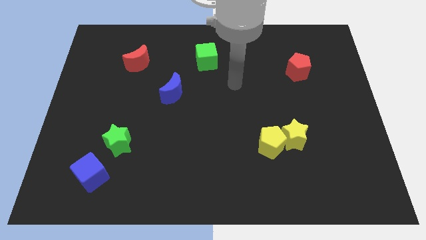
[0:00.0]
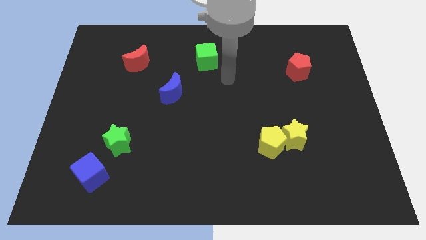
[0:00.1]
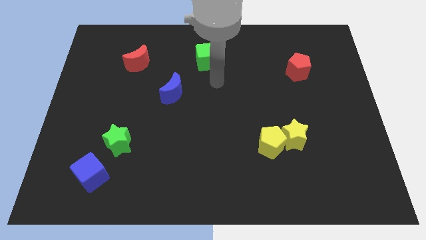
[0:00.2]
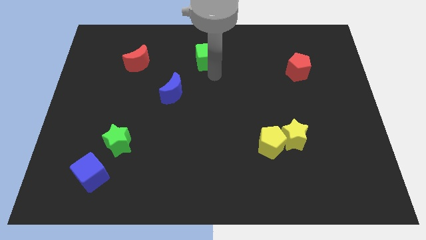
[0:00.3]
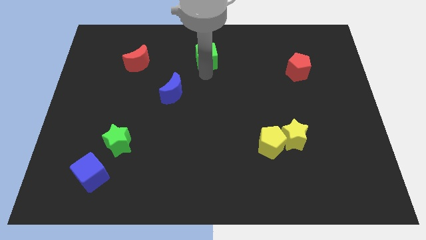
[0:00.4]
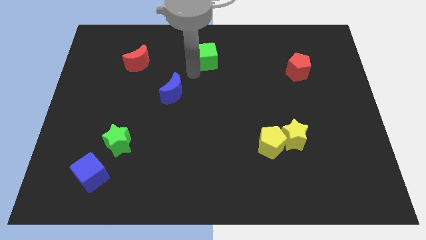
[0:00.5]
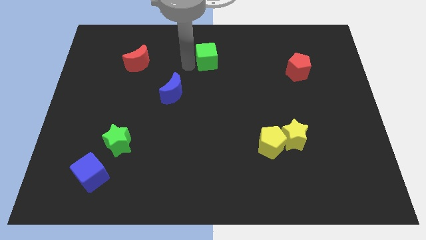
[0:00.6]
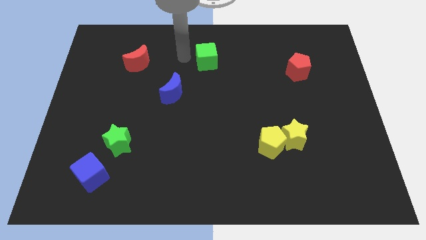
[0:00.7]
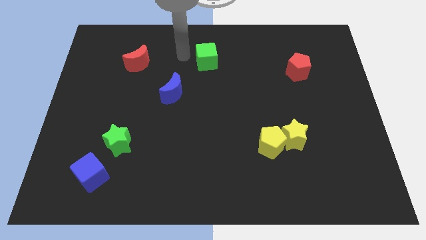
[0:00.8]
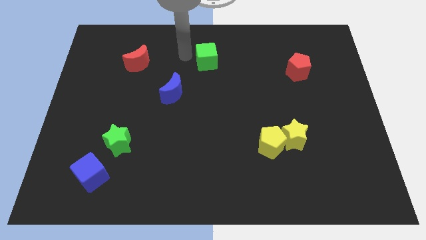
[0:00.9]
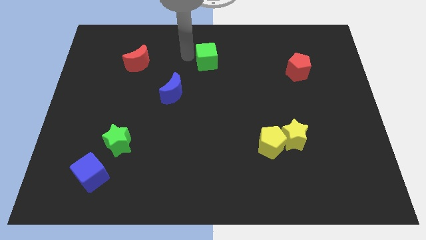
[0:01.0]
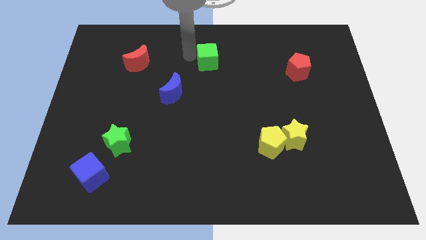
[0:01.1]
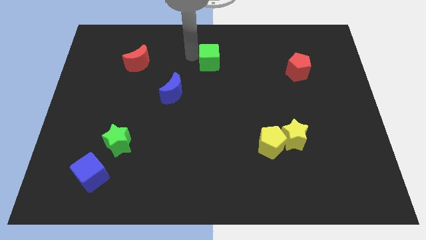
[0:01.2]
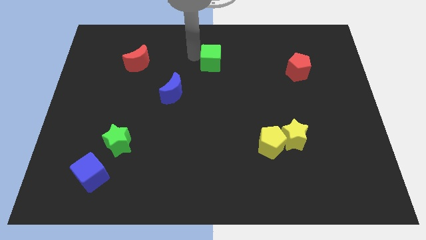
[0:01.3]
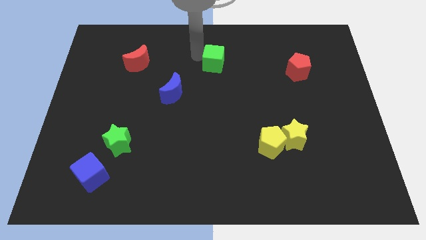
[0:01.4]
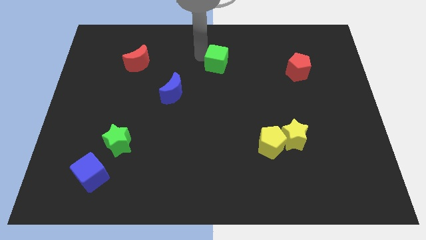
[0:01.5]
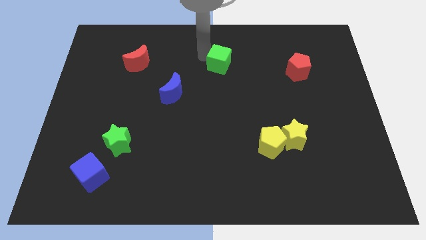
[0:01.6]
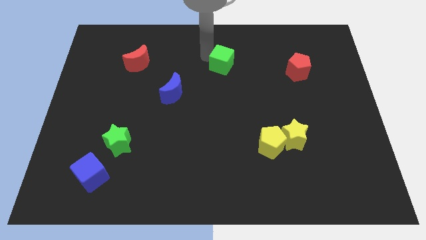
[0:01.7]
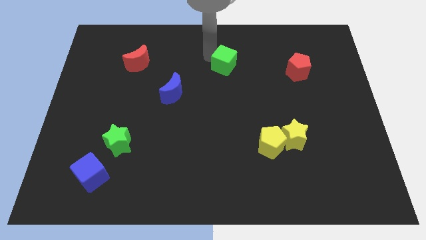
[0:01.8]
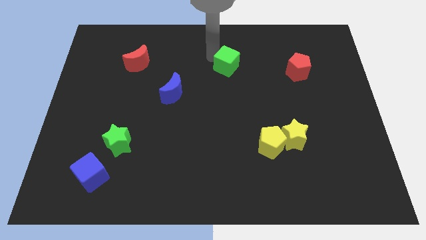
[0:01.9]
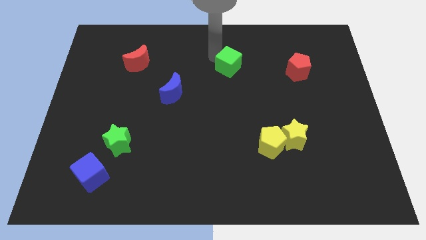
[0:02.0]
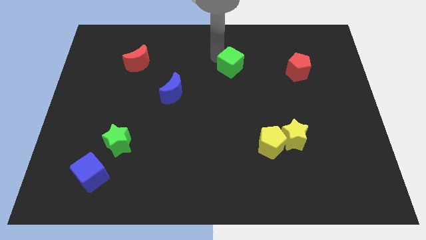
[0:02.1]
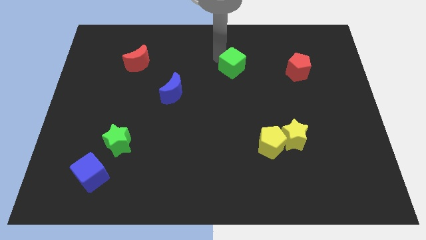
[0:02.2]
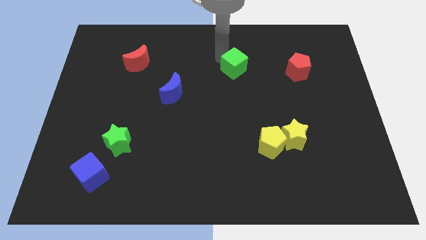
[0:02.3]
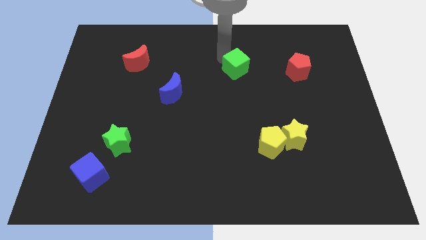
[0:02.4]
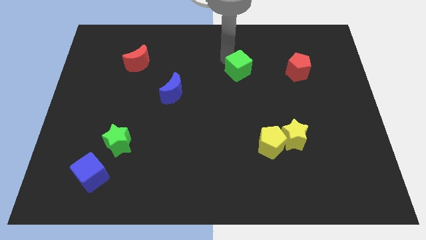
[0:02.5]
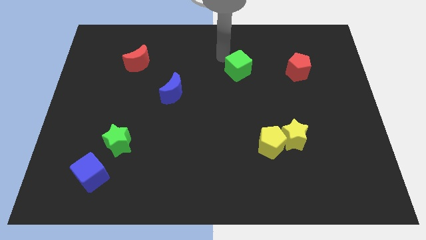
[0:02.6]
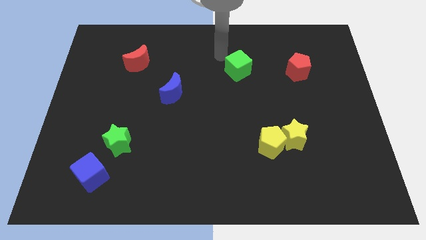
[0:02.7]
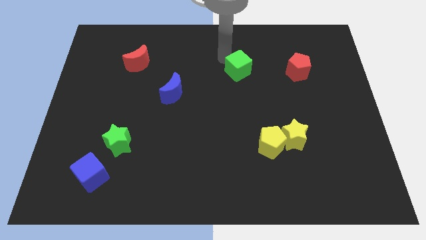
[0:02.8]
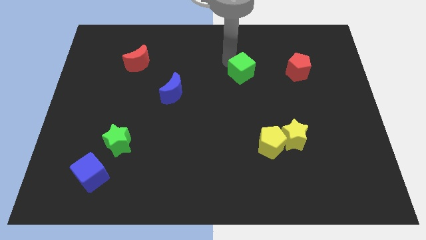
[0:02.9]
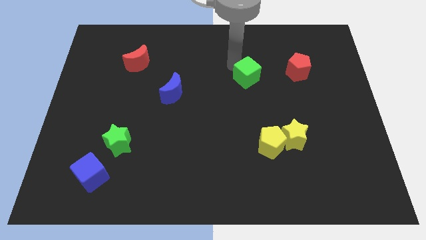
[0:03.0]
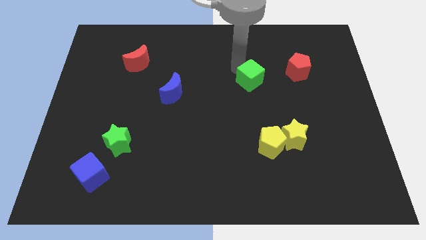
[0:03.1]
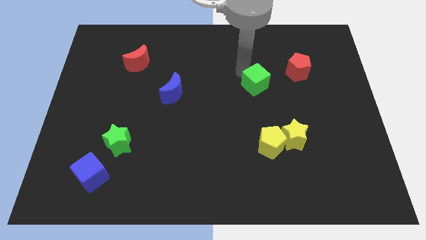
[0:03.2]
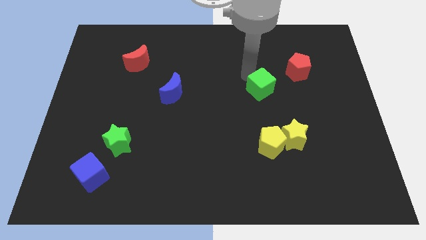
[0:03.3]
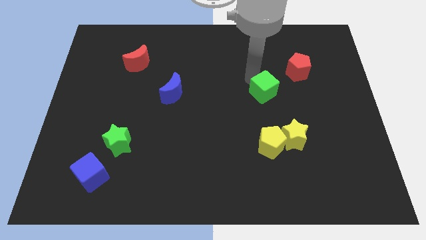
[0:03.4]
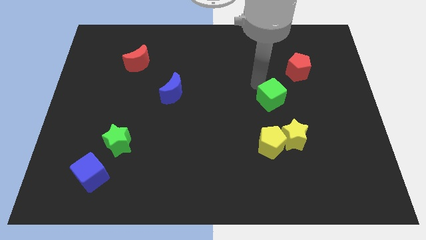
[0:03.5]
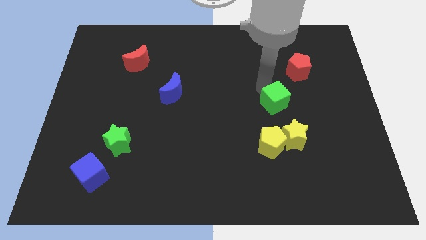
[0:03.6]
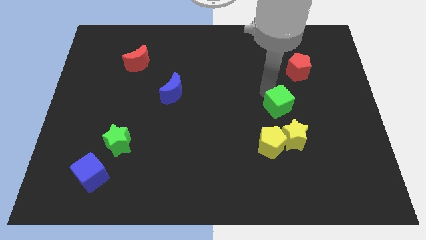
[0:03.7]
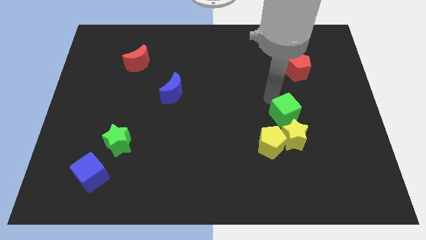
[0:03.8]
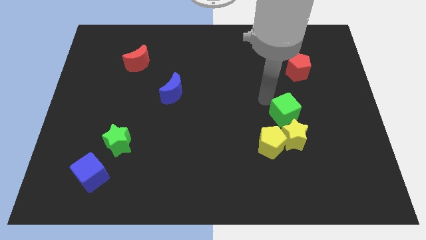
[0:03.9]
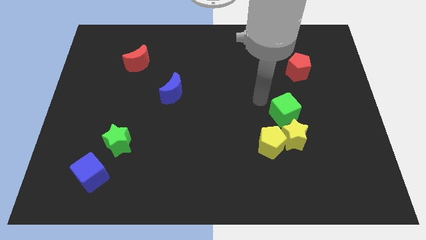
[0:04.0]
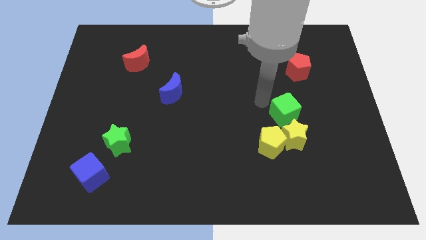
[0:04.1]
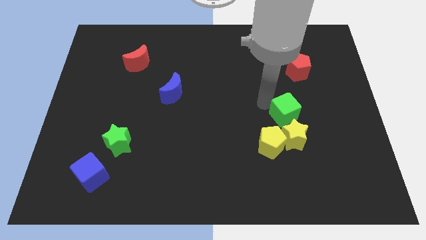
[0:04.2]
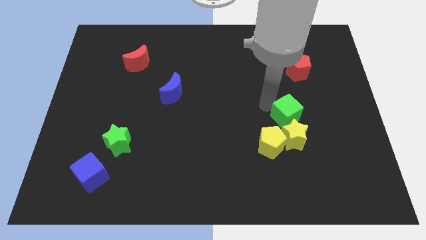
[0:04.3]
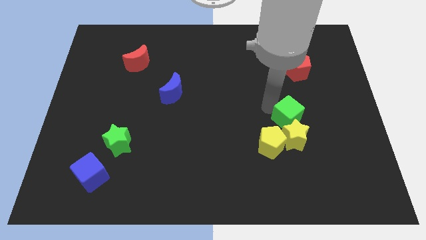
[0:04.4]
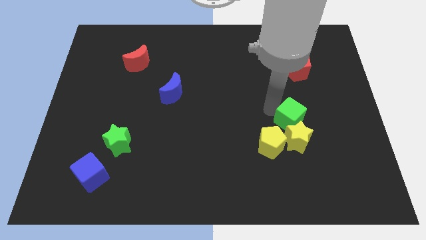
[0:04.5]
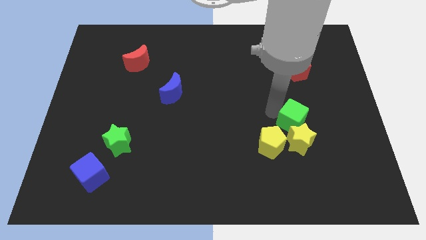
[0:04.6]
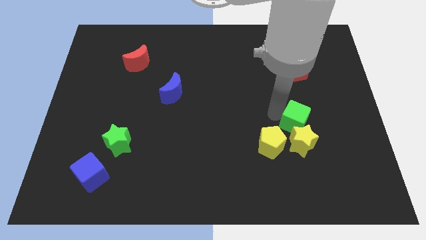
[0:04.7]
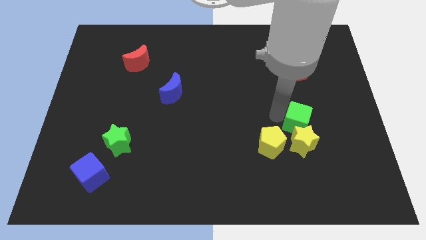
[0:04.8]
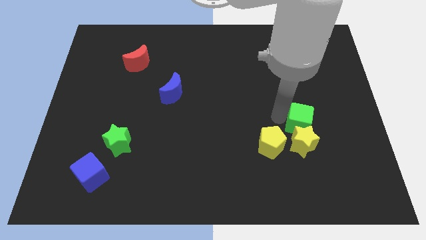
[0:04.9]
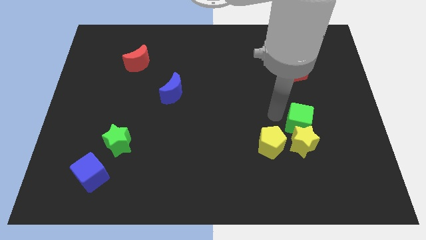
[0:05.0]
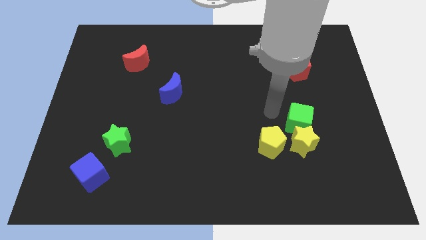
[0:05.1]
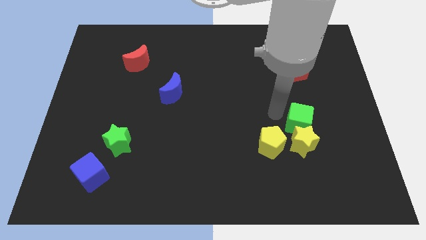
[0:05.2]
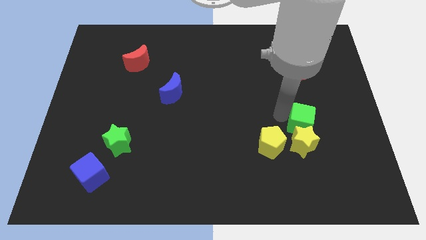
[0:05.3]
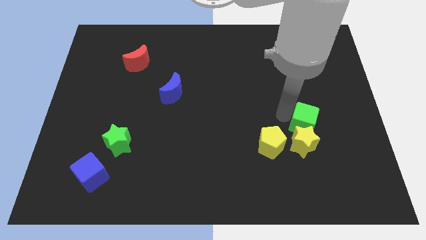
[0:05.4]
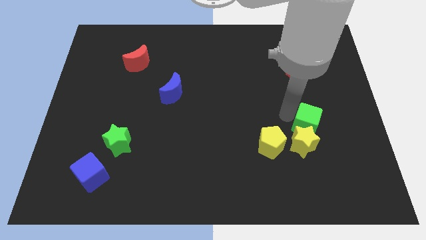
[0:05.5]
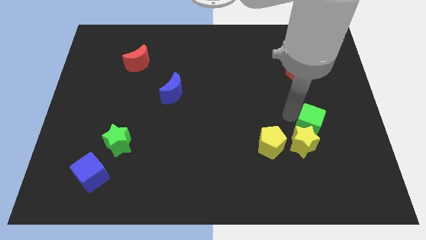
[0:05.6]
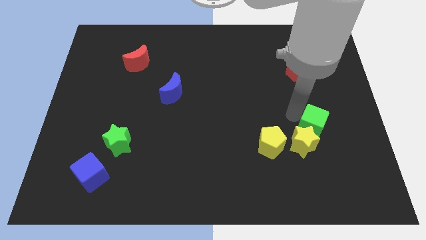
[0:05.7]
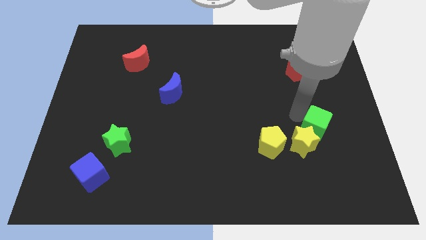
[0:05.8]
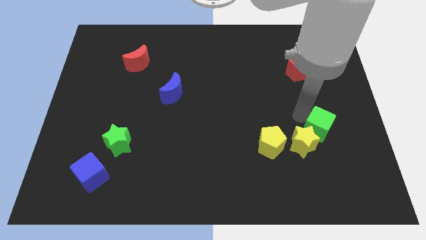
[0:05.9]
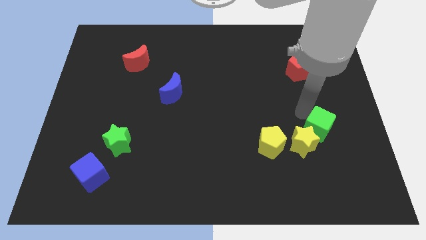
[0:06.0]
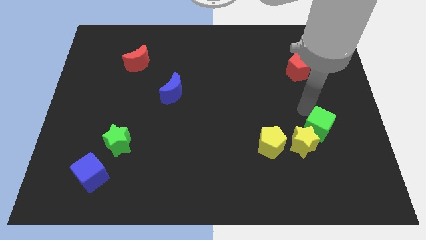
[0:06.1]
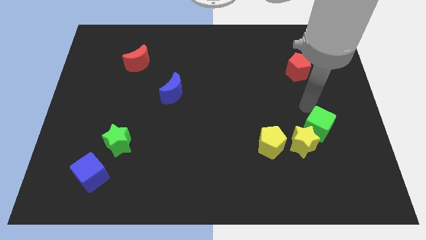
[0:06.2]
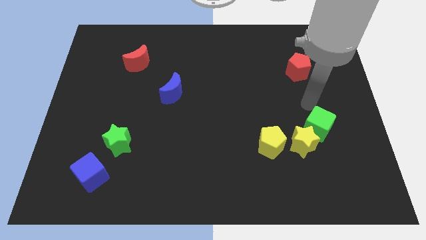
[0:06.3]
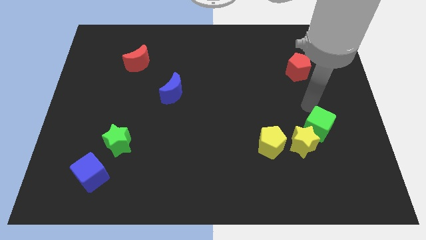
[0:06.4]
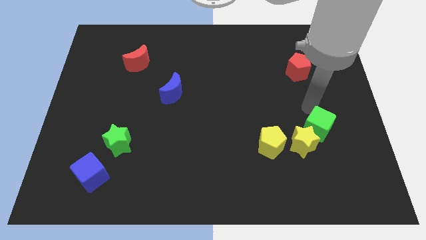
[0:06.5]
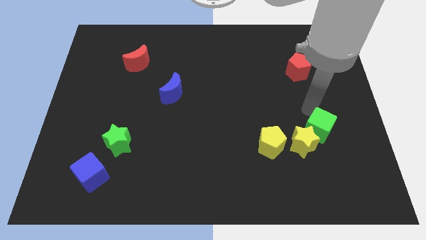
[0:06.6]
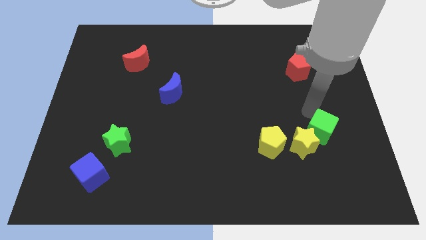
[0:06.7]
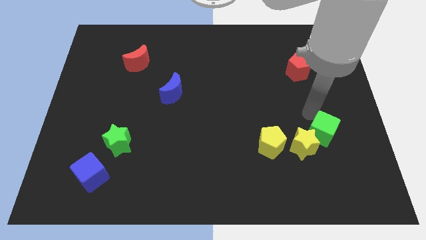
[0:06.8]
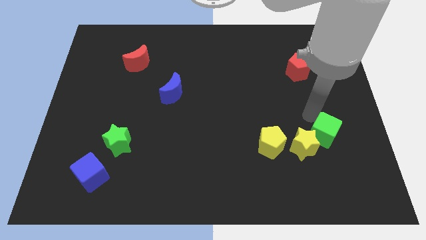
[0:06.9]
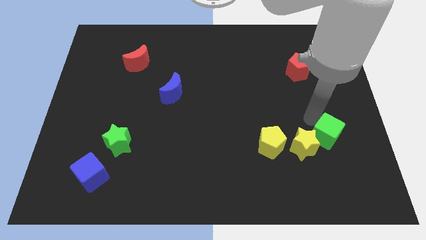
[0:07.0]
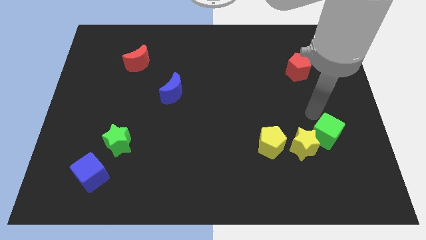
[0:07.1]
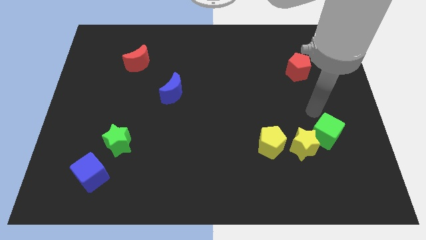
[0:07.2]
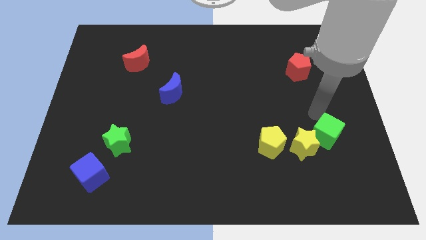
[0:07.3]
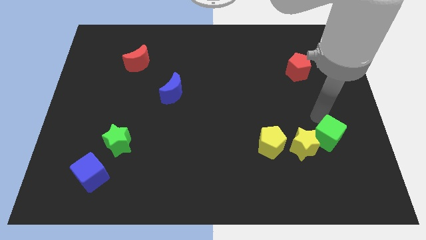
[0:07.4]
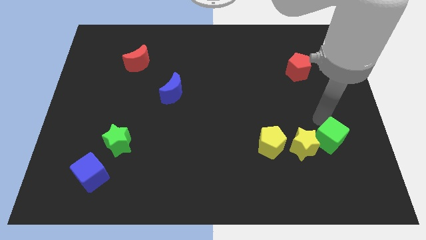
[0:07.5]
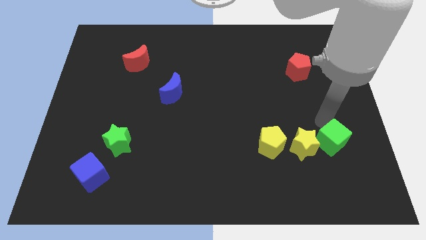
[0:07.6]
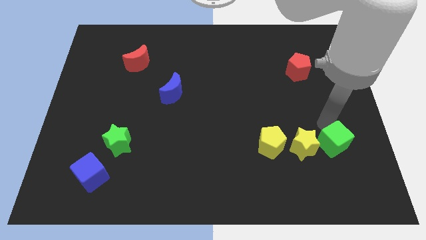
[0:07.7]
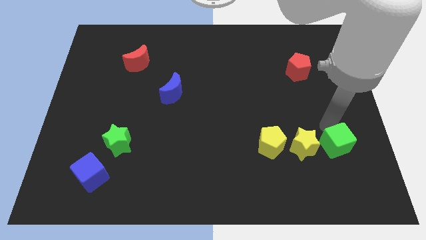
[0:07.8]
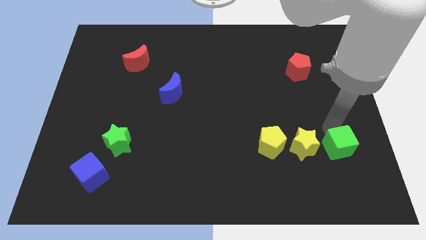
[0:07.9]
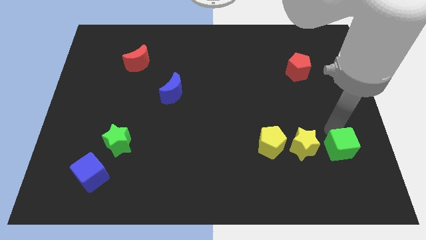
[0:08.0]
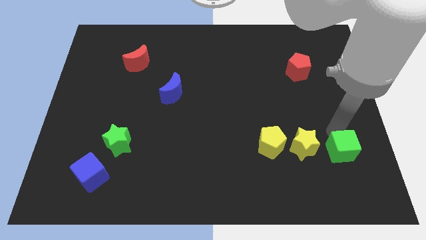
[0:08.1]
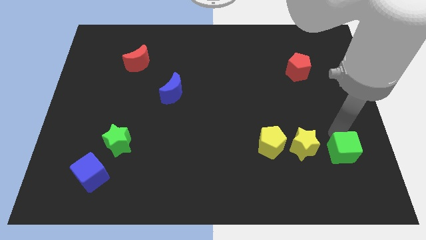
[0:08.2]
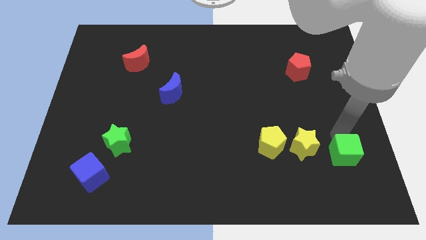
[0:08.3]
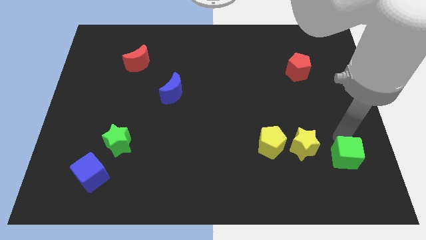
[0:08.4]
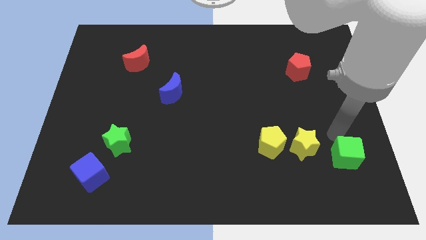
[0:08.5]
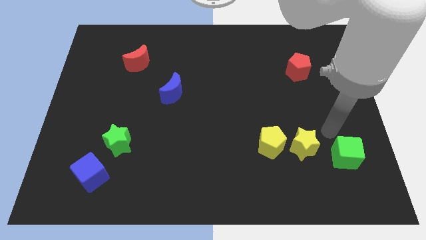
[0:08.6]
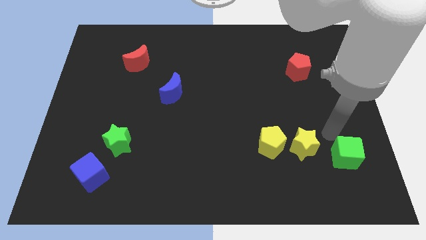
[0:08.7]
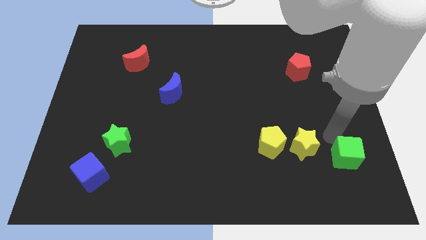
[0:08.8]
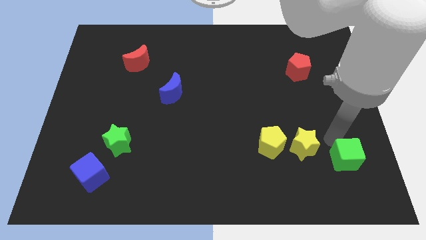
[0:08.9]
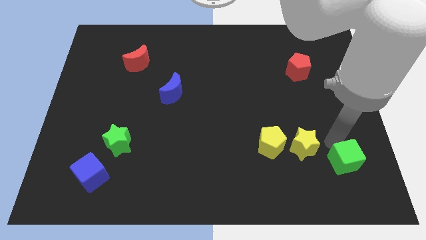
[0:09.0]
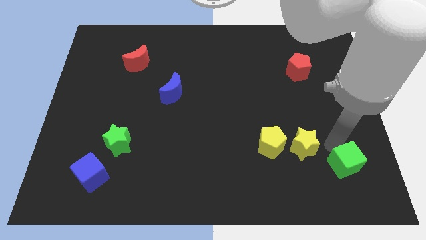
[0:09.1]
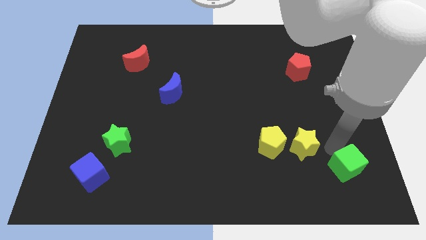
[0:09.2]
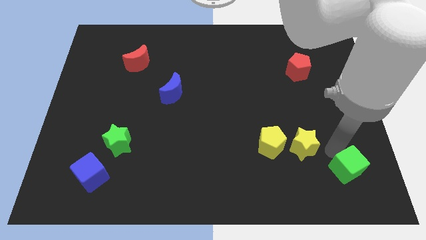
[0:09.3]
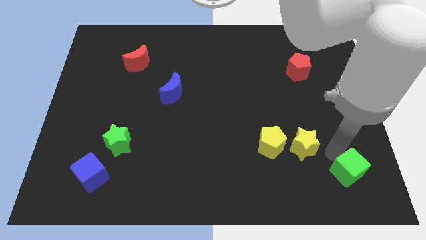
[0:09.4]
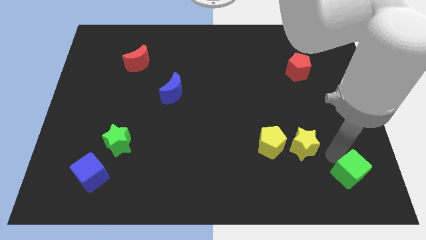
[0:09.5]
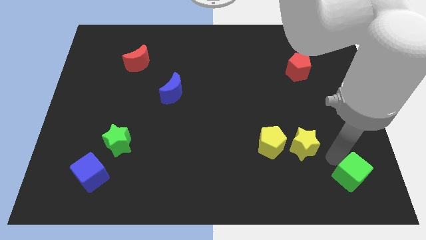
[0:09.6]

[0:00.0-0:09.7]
slide the green cube to the bottom right
